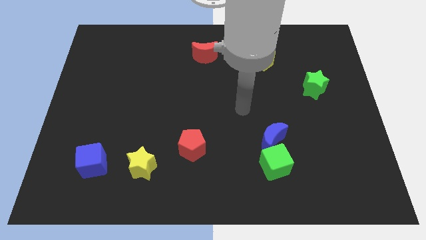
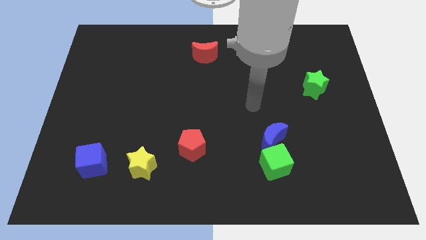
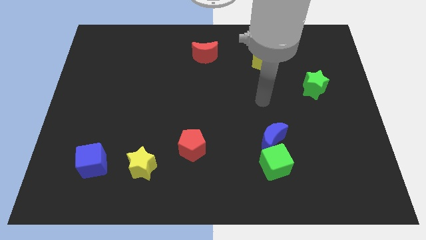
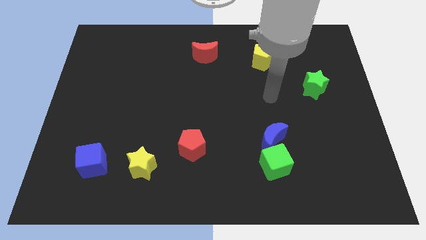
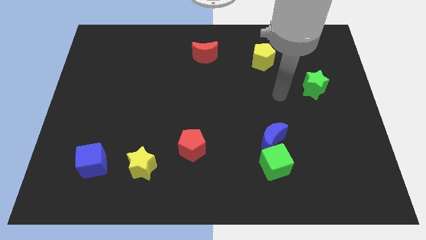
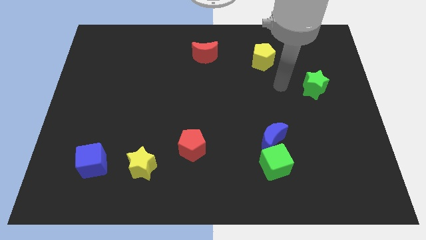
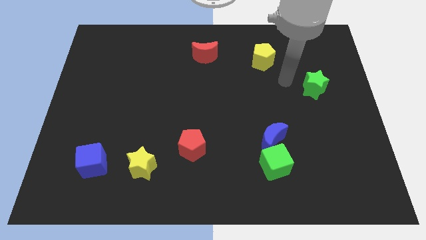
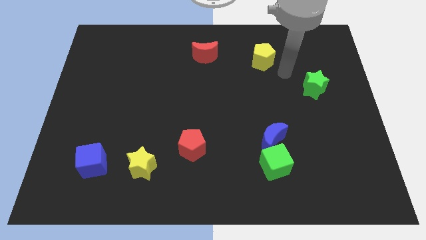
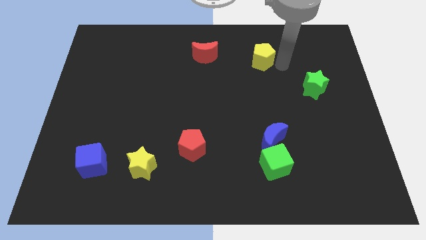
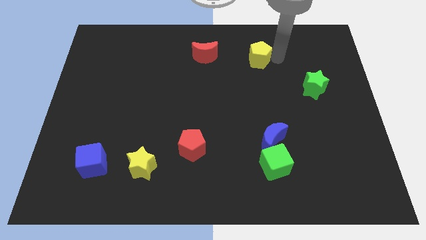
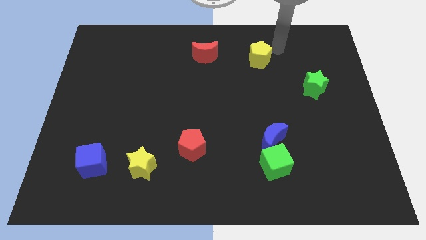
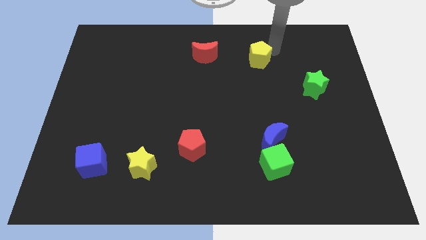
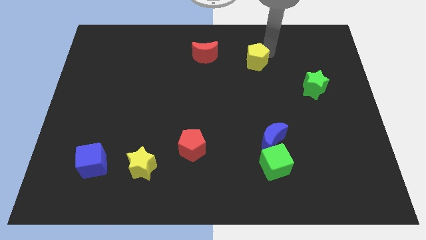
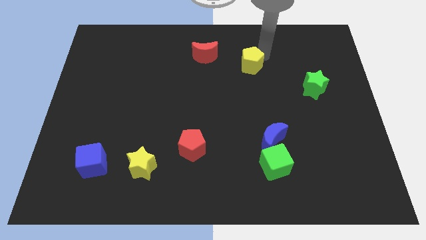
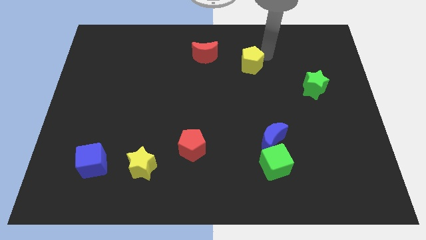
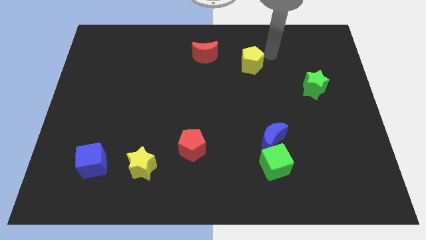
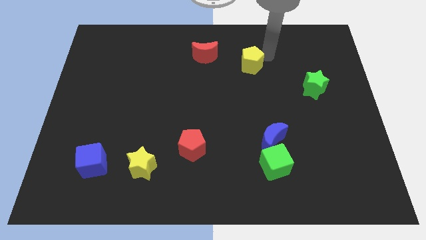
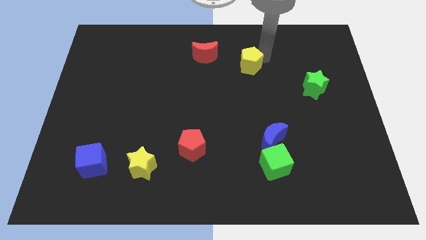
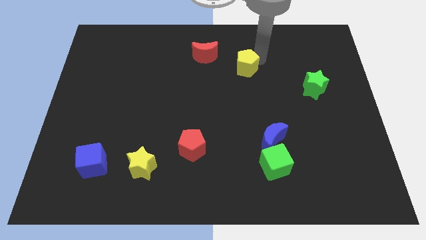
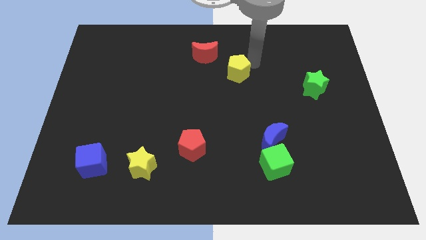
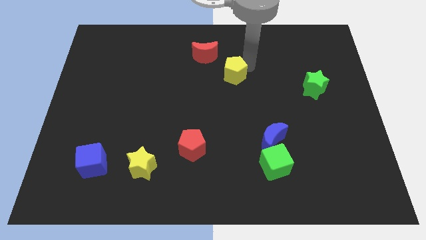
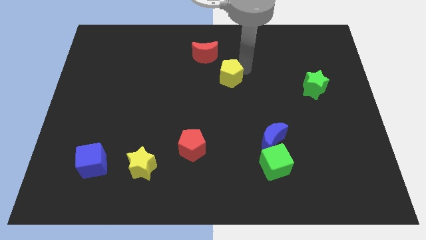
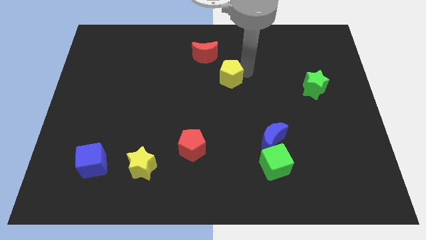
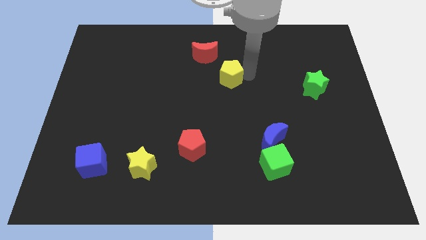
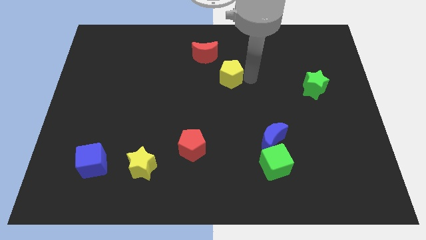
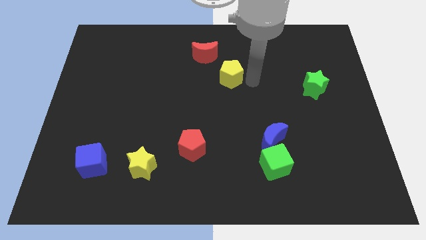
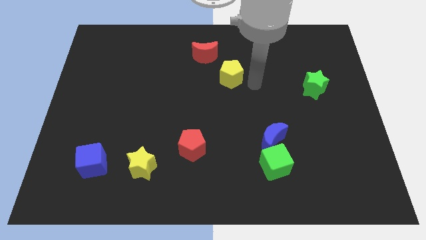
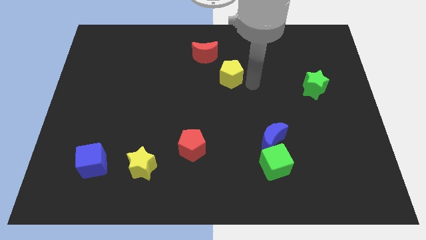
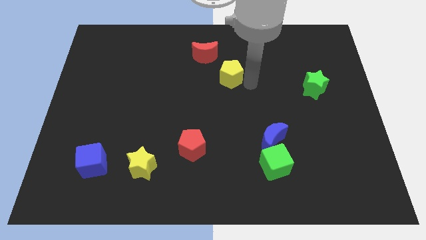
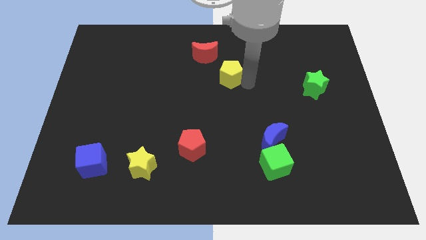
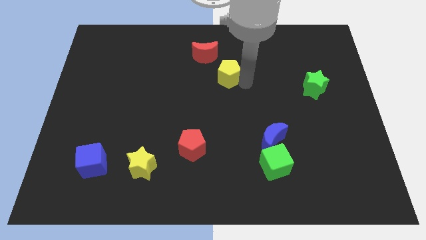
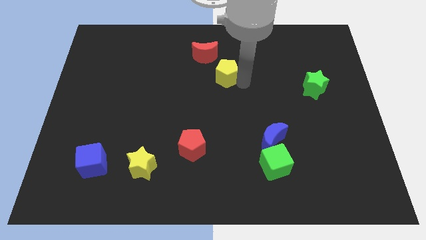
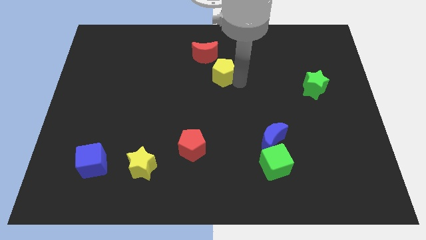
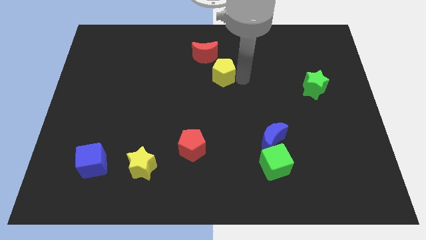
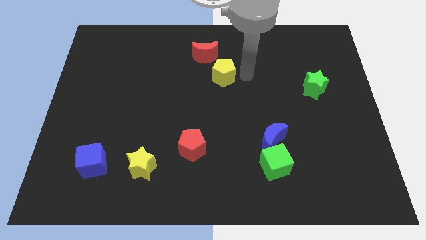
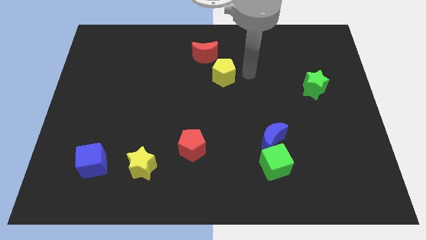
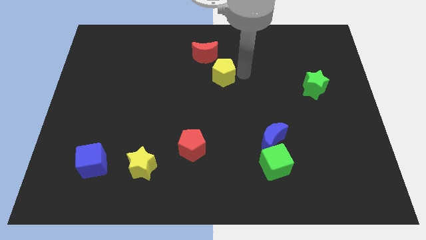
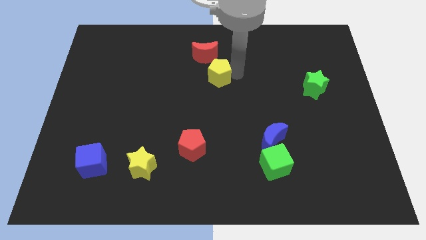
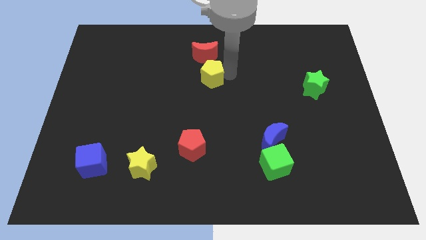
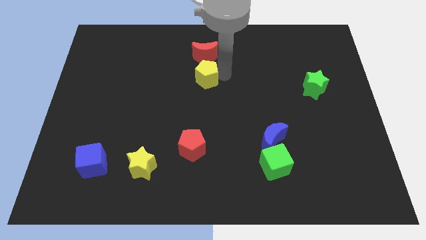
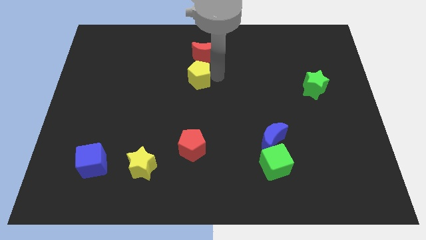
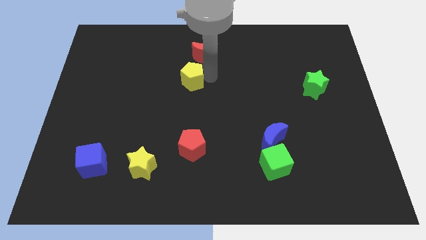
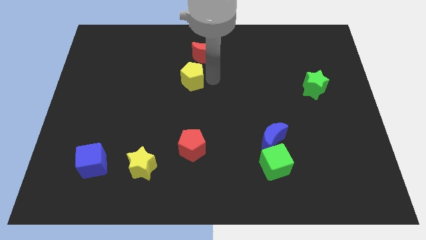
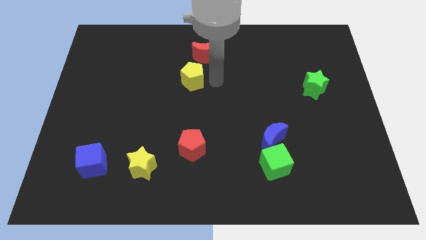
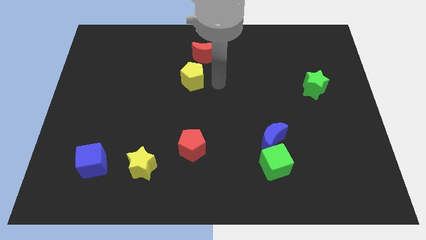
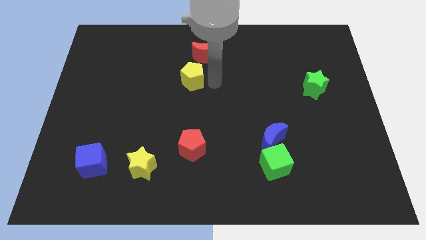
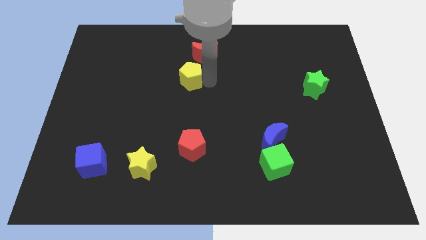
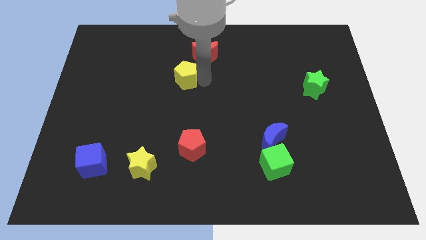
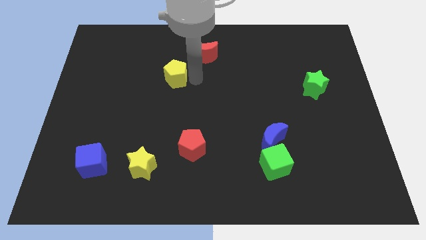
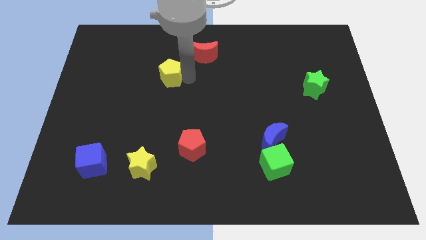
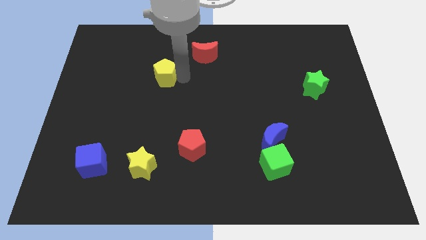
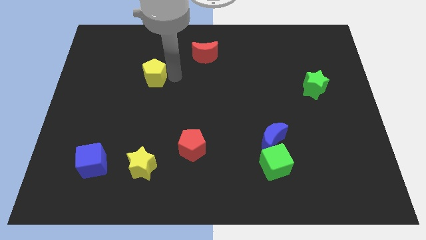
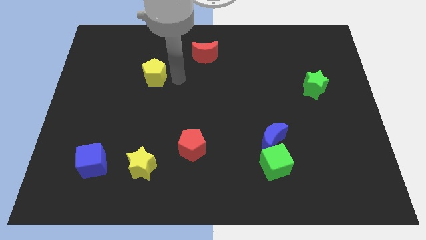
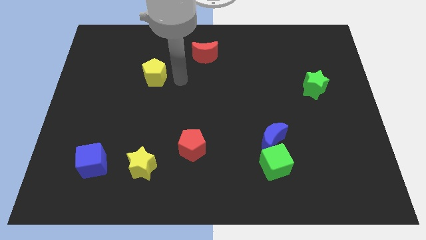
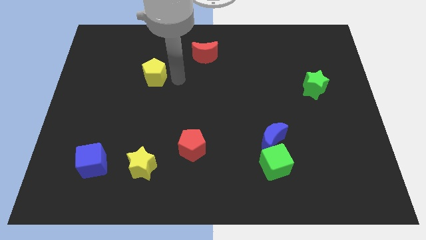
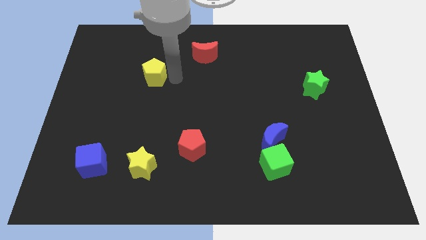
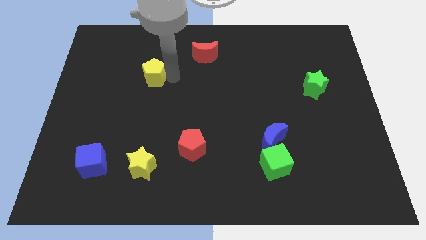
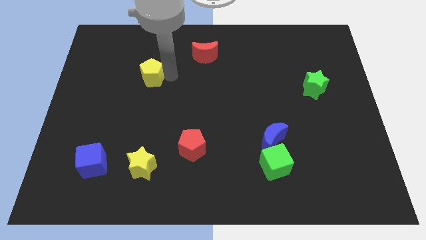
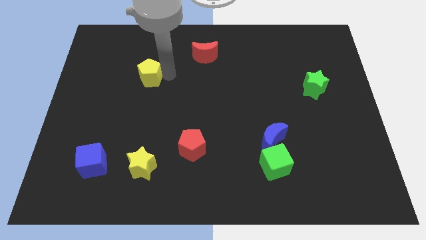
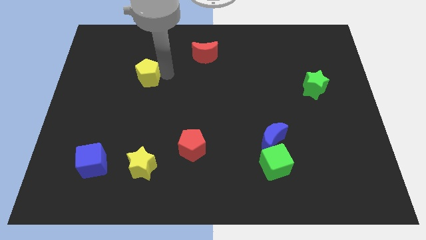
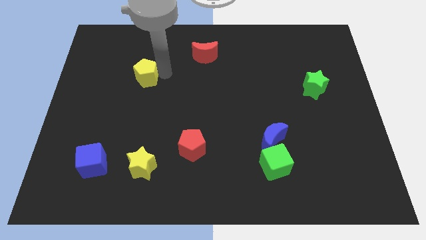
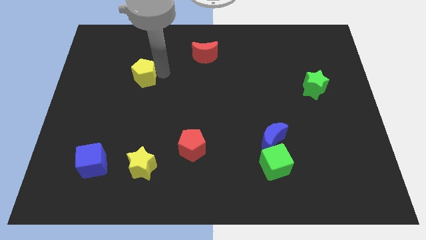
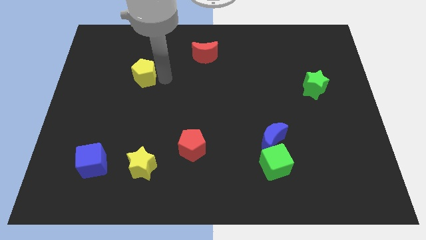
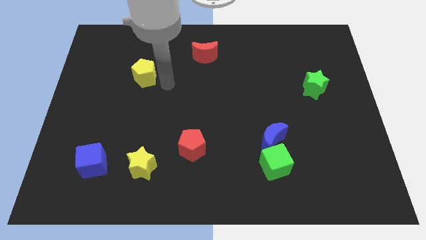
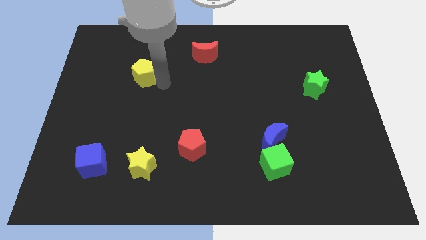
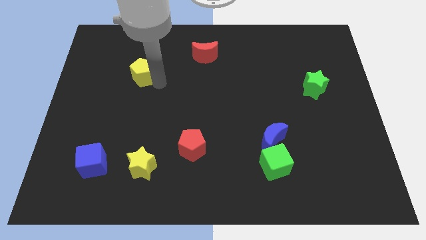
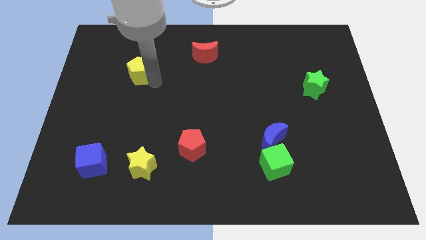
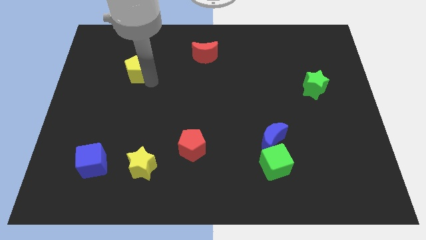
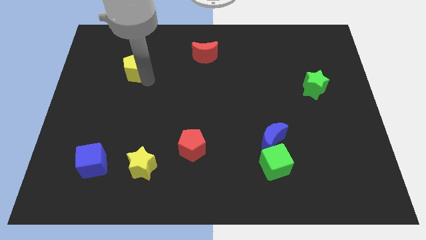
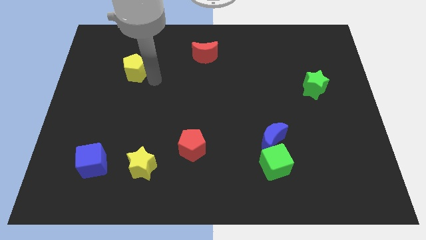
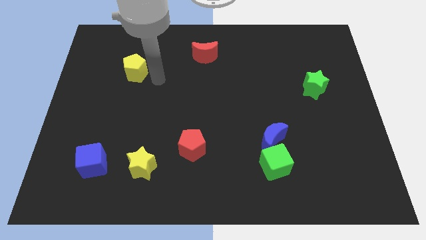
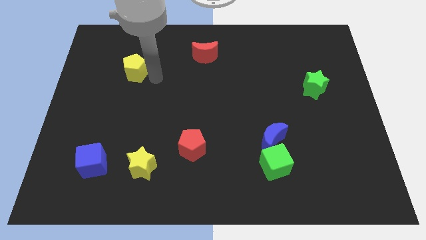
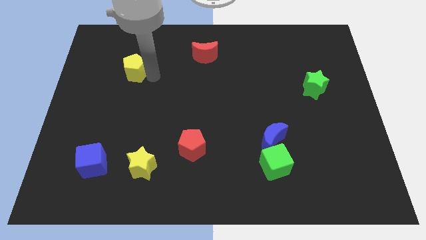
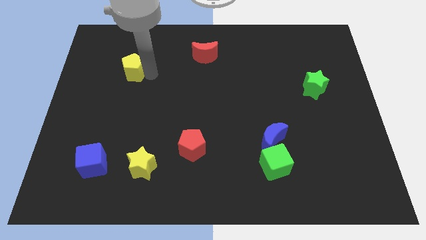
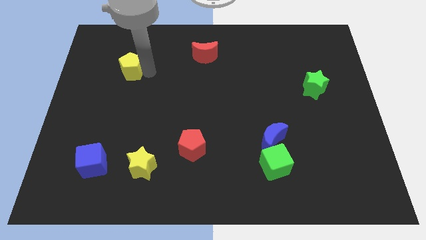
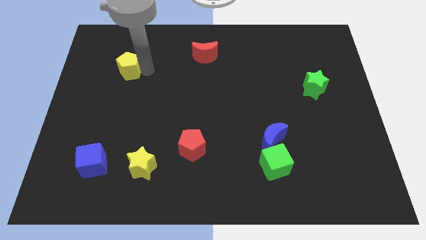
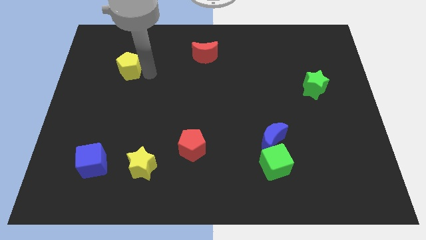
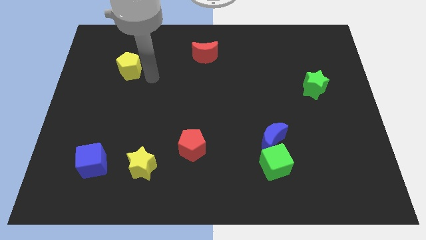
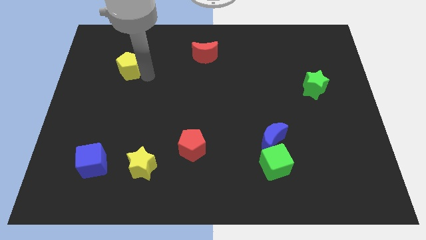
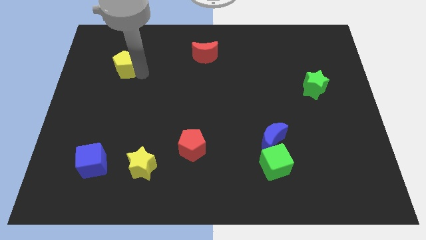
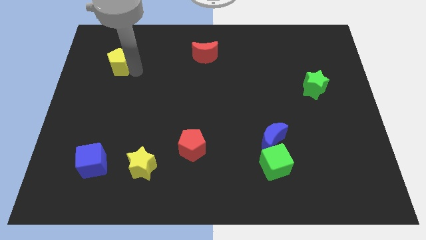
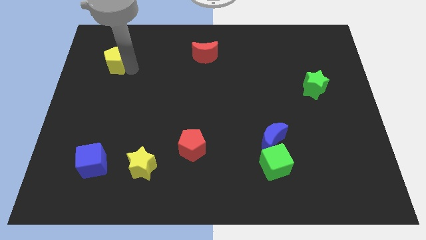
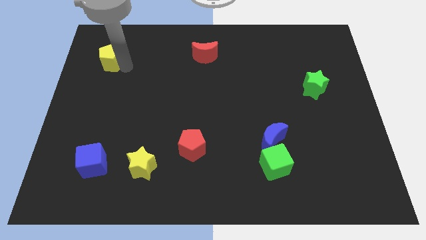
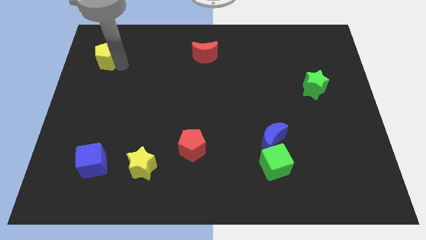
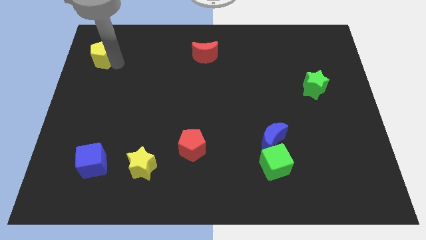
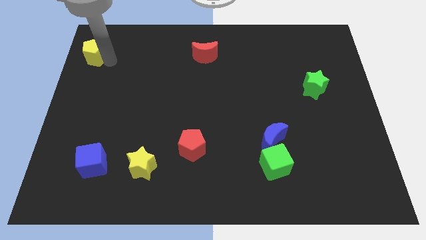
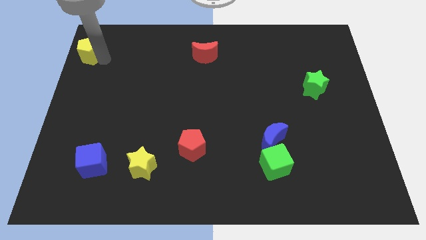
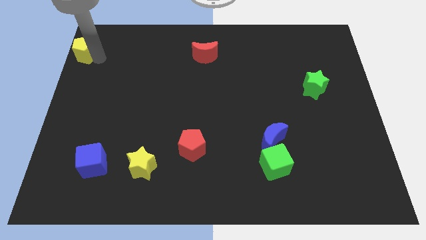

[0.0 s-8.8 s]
put the yellow pentagon to the top left of the board
